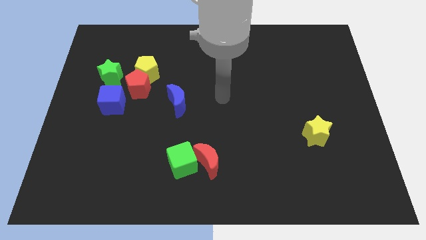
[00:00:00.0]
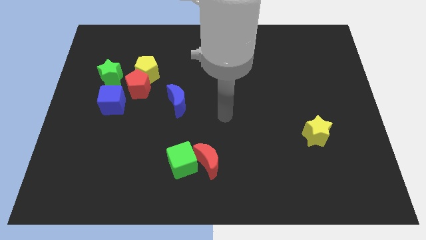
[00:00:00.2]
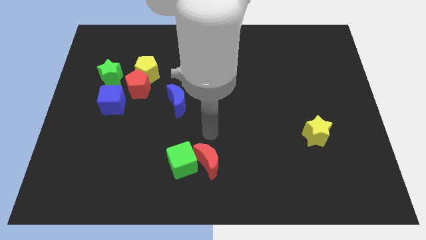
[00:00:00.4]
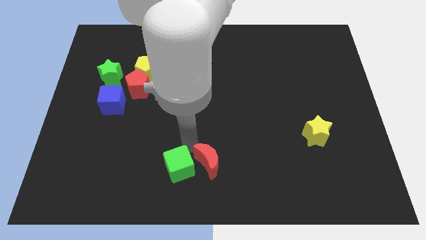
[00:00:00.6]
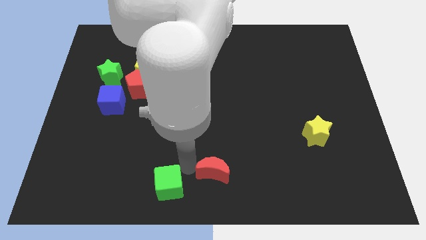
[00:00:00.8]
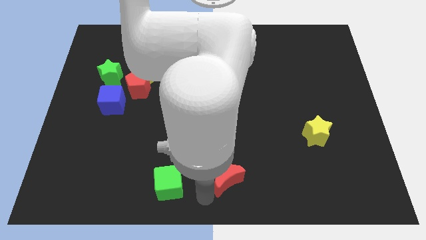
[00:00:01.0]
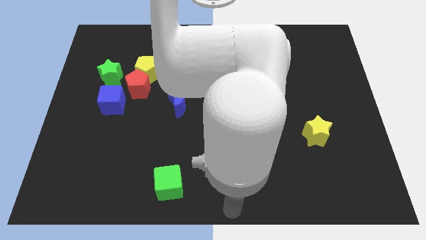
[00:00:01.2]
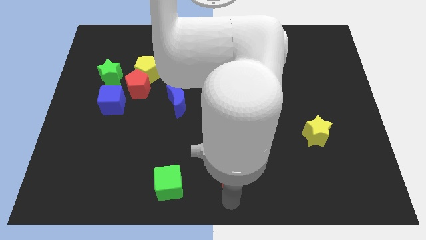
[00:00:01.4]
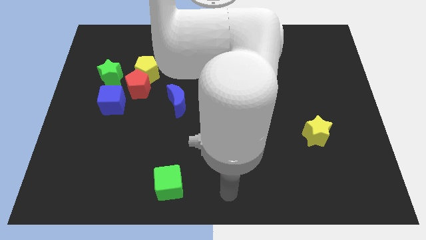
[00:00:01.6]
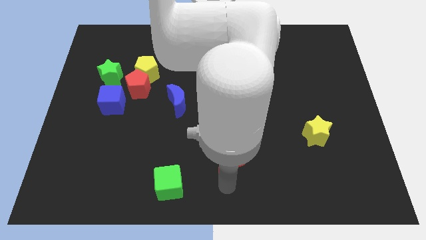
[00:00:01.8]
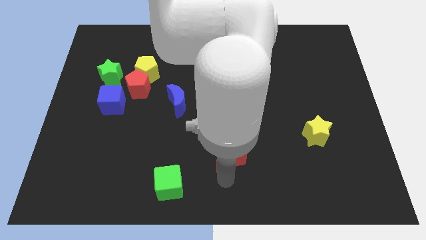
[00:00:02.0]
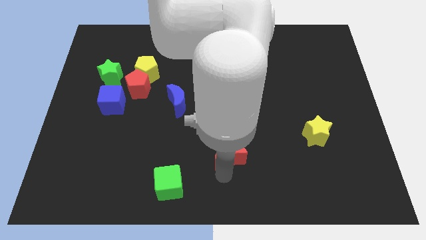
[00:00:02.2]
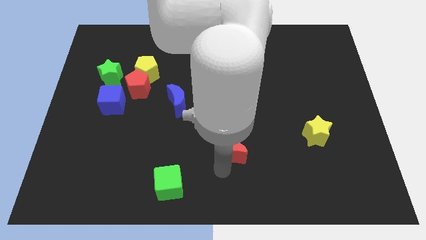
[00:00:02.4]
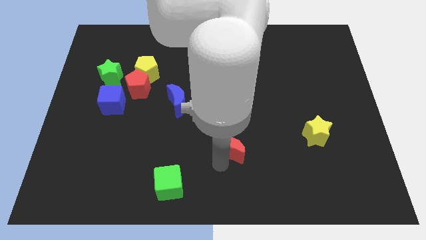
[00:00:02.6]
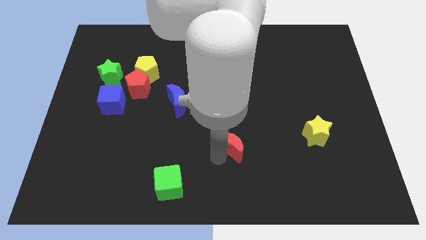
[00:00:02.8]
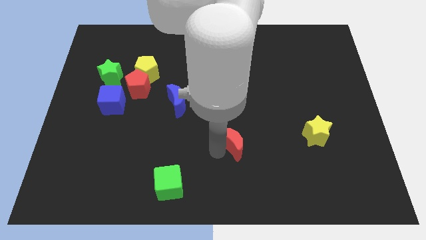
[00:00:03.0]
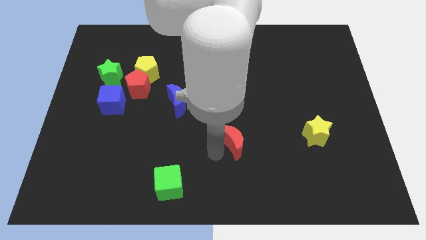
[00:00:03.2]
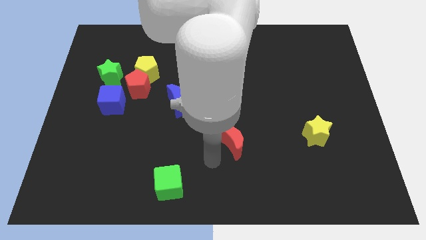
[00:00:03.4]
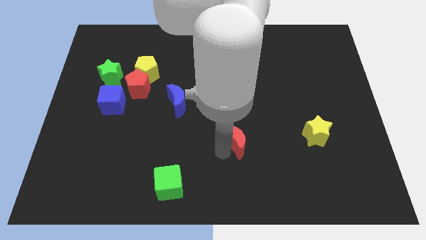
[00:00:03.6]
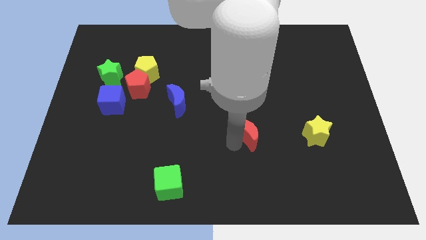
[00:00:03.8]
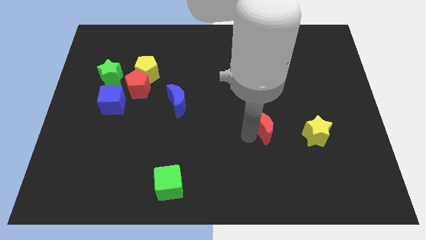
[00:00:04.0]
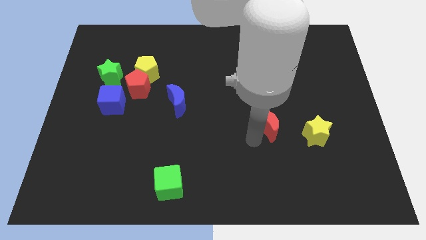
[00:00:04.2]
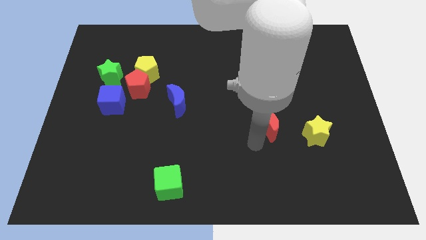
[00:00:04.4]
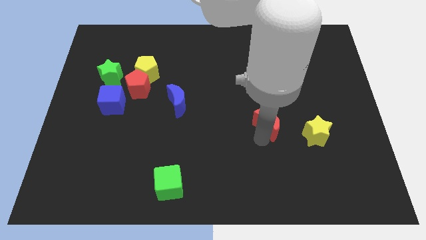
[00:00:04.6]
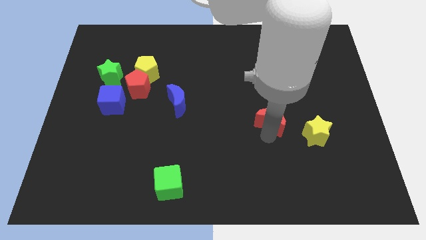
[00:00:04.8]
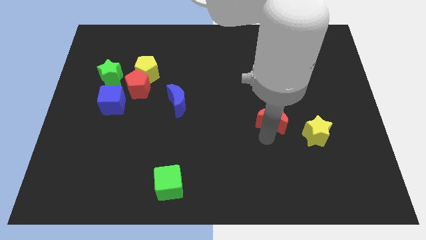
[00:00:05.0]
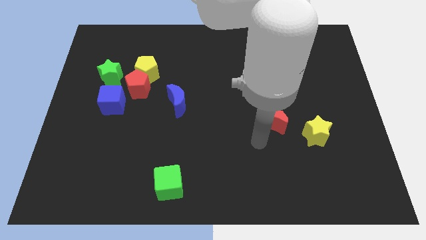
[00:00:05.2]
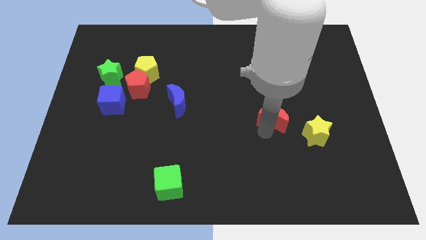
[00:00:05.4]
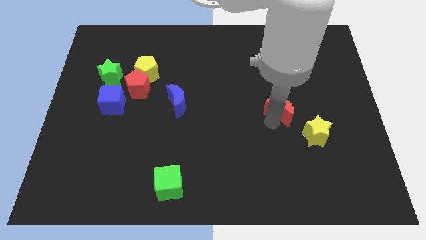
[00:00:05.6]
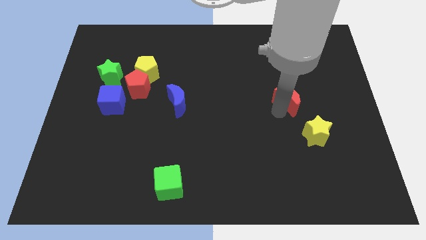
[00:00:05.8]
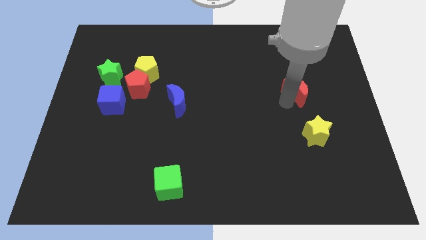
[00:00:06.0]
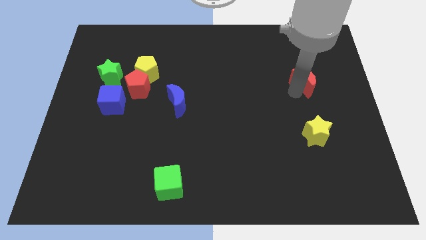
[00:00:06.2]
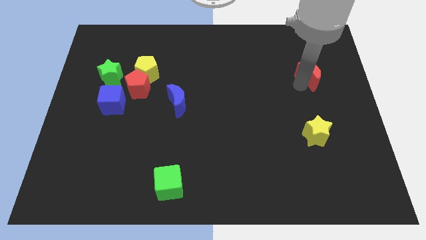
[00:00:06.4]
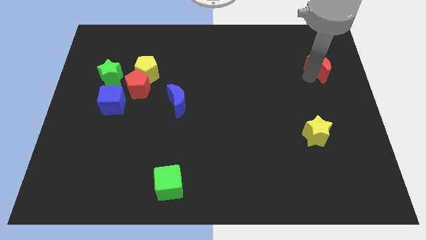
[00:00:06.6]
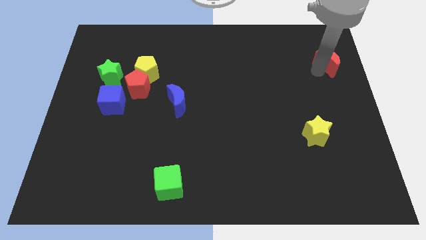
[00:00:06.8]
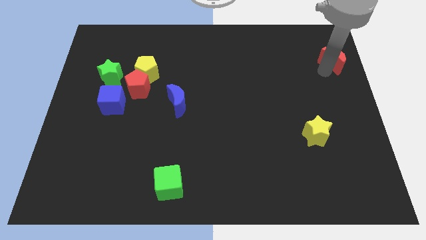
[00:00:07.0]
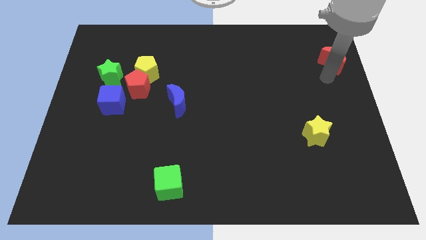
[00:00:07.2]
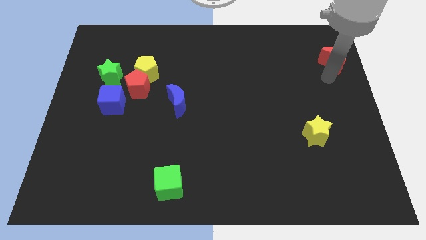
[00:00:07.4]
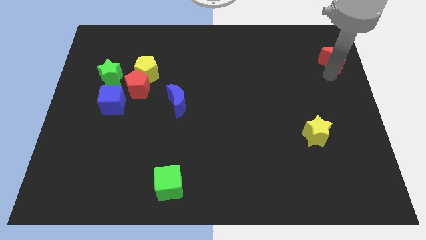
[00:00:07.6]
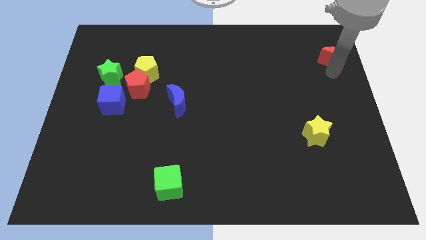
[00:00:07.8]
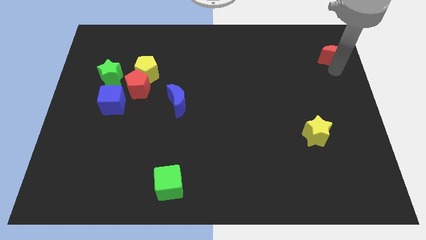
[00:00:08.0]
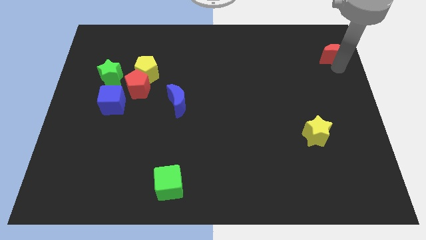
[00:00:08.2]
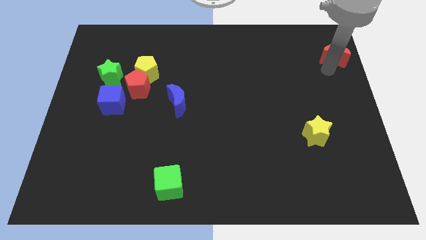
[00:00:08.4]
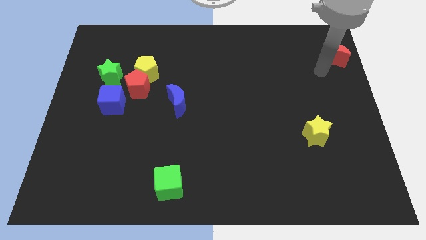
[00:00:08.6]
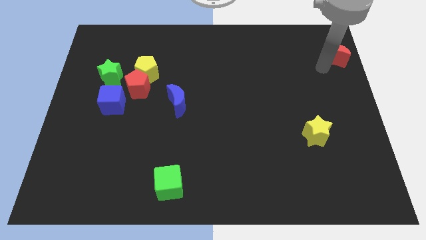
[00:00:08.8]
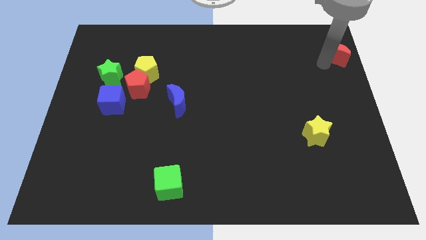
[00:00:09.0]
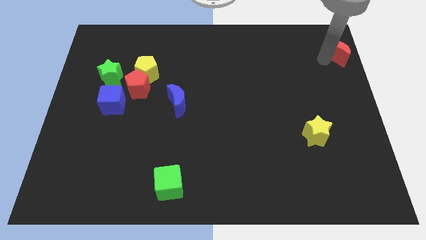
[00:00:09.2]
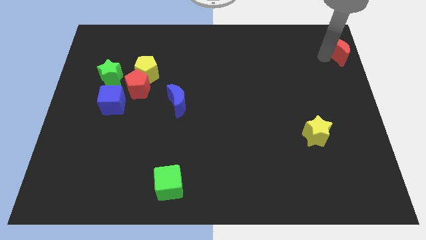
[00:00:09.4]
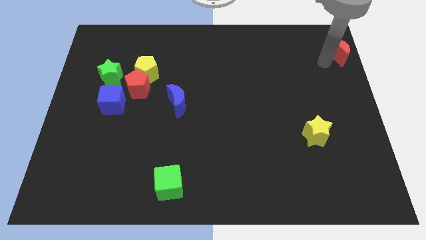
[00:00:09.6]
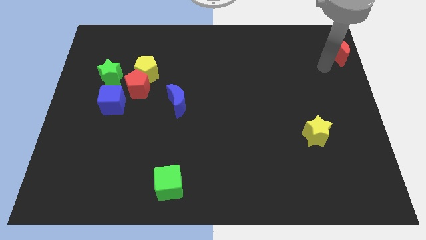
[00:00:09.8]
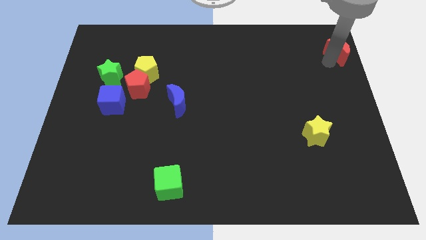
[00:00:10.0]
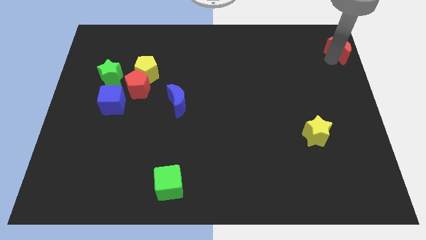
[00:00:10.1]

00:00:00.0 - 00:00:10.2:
push the red moon to the upper right corner

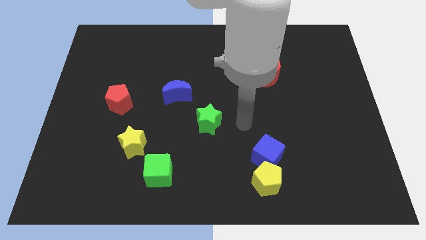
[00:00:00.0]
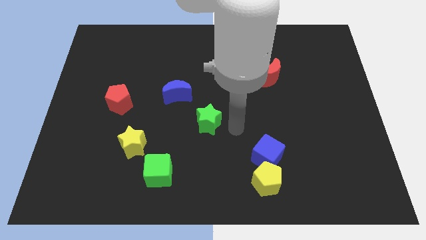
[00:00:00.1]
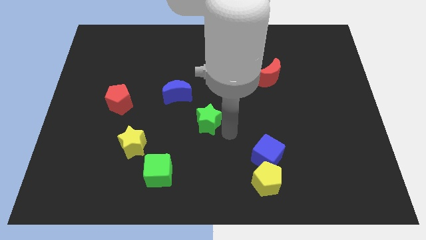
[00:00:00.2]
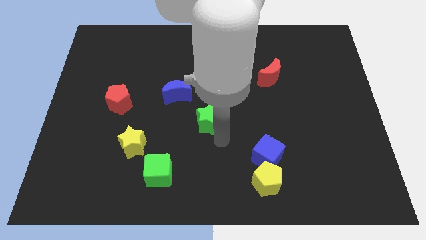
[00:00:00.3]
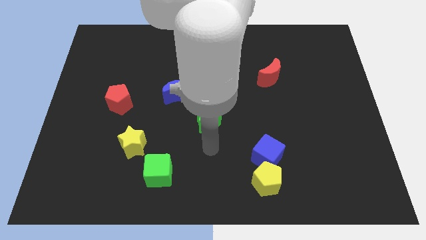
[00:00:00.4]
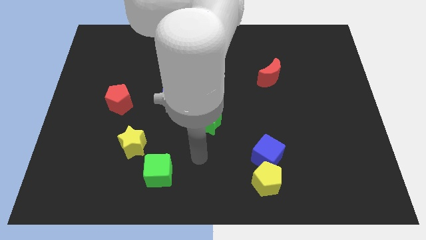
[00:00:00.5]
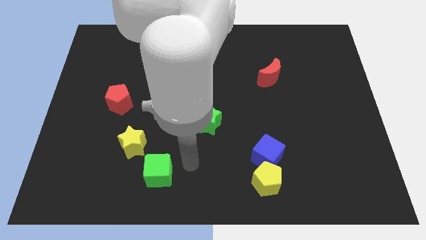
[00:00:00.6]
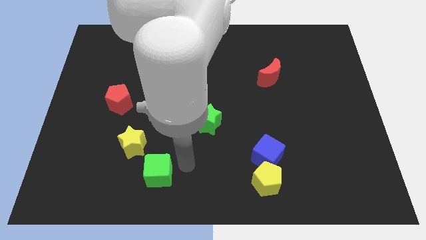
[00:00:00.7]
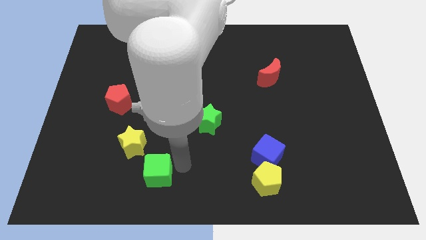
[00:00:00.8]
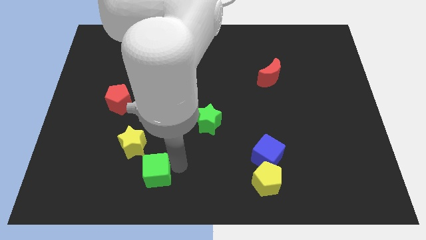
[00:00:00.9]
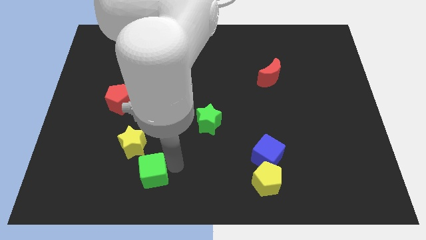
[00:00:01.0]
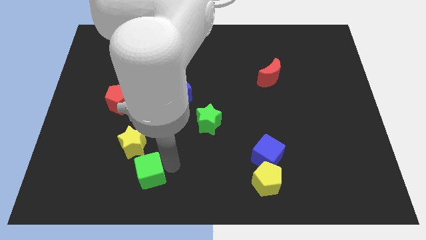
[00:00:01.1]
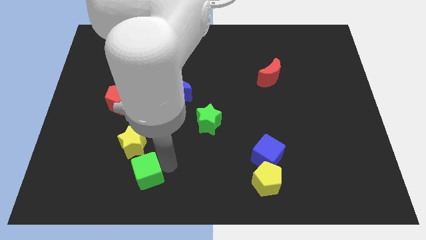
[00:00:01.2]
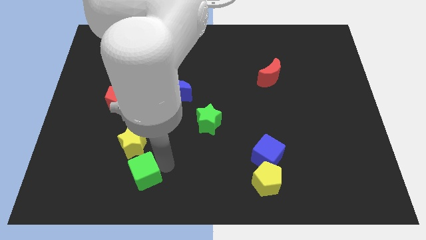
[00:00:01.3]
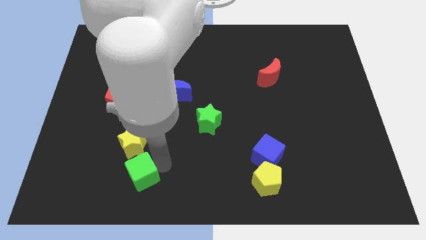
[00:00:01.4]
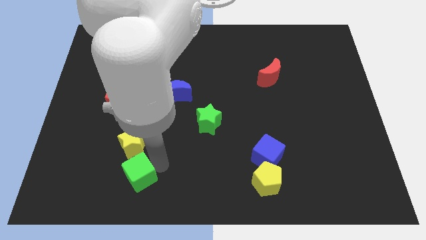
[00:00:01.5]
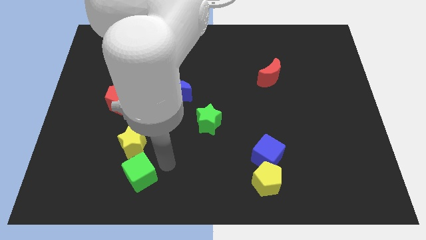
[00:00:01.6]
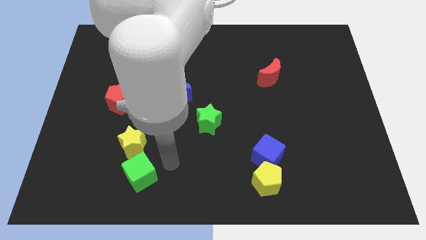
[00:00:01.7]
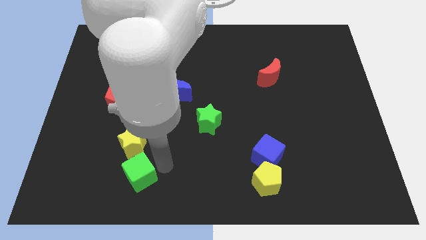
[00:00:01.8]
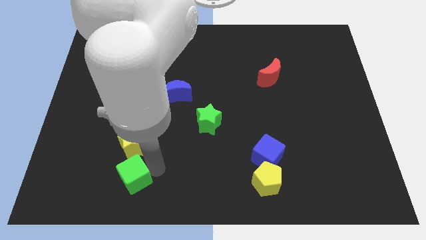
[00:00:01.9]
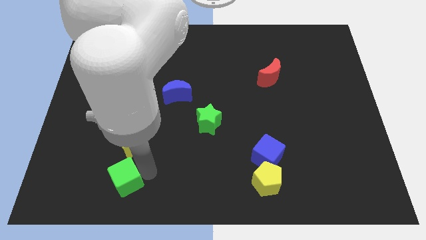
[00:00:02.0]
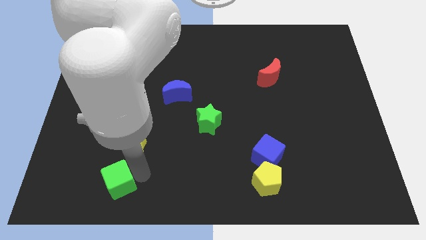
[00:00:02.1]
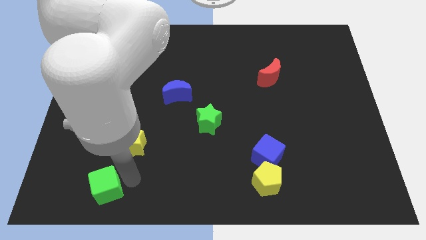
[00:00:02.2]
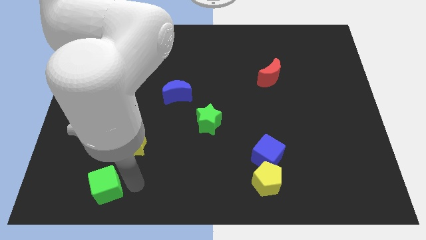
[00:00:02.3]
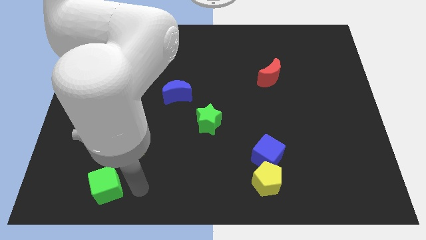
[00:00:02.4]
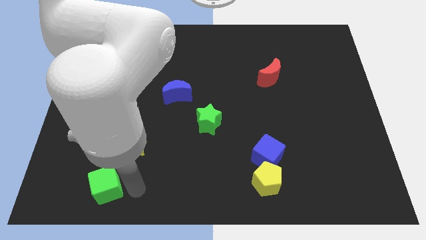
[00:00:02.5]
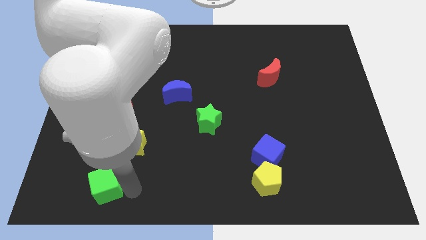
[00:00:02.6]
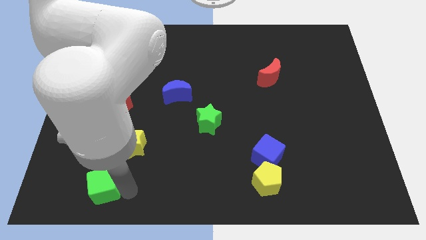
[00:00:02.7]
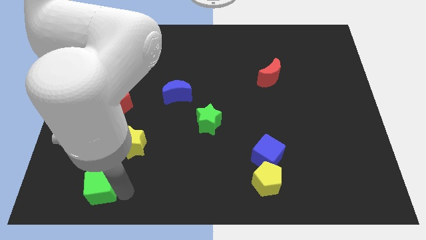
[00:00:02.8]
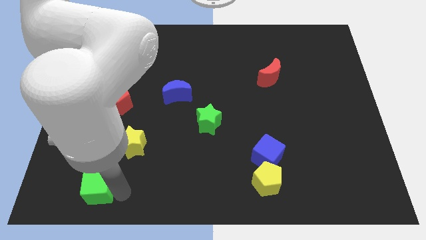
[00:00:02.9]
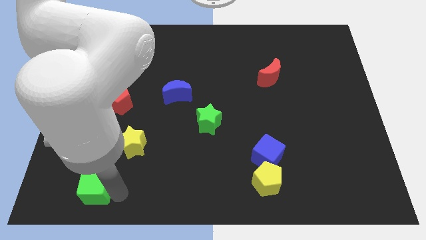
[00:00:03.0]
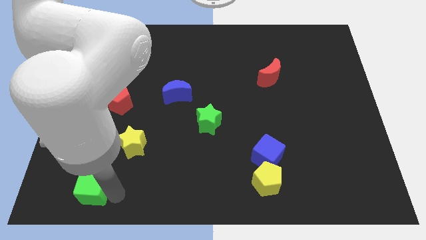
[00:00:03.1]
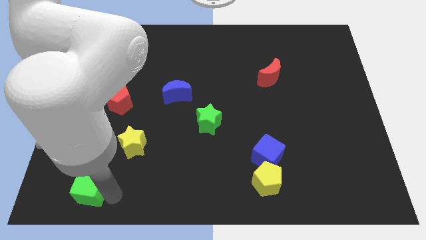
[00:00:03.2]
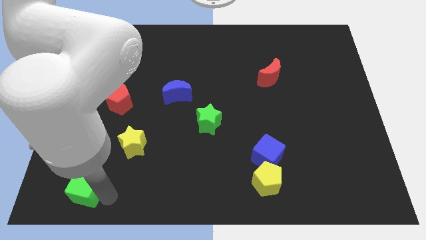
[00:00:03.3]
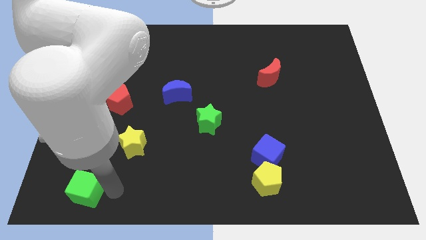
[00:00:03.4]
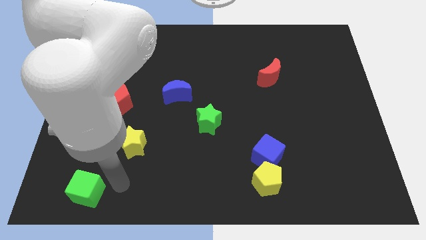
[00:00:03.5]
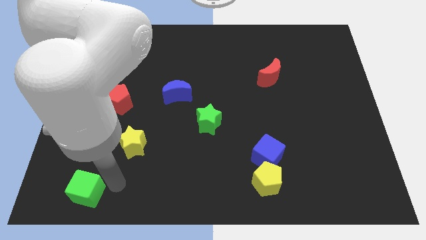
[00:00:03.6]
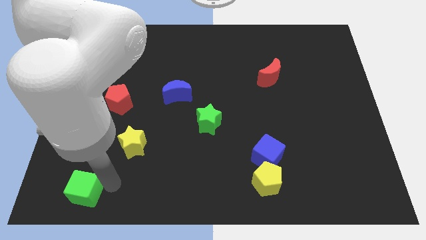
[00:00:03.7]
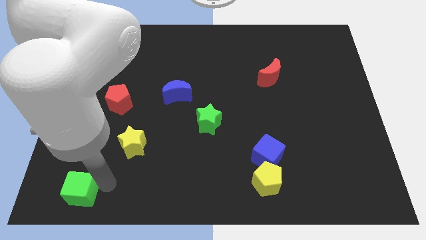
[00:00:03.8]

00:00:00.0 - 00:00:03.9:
move the green cube to the lower left corner
